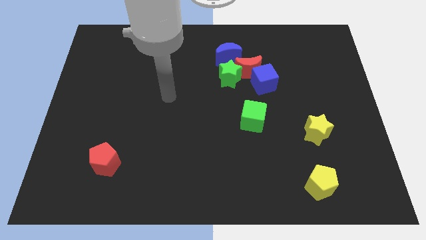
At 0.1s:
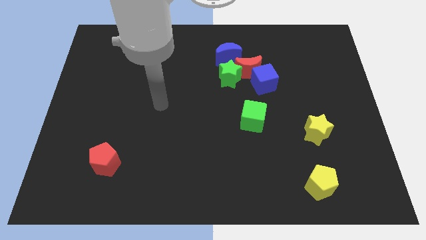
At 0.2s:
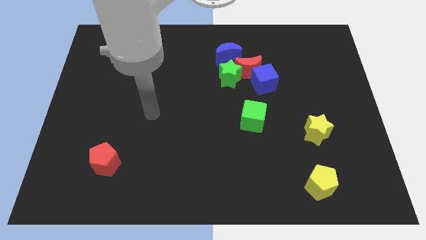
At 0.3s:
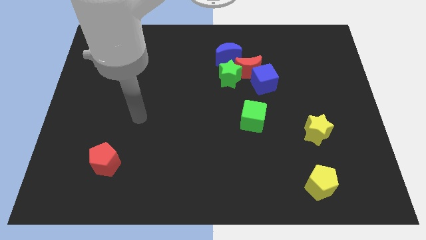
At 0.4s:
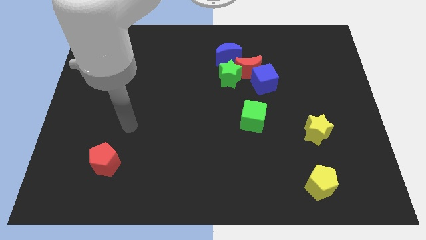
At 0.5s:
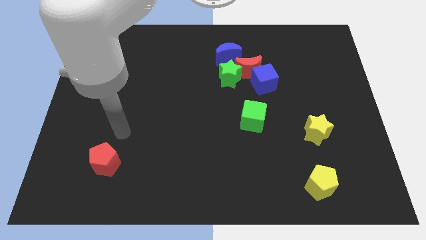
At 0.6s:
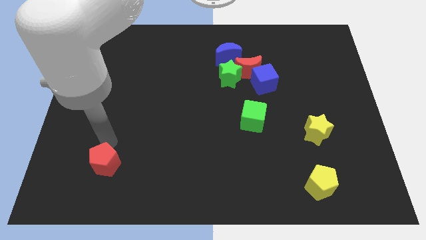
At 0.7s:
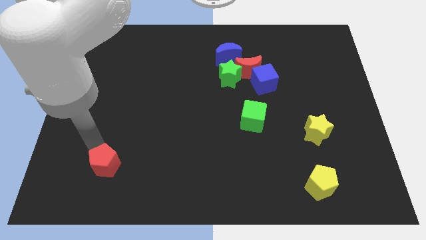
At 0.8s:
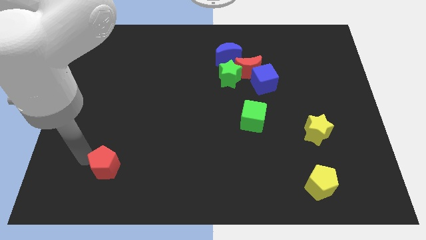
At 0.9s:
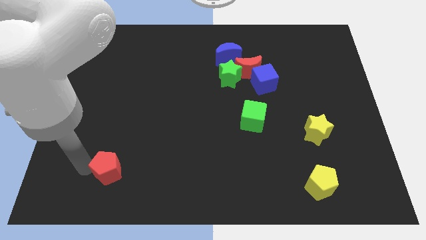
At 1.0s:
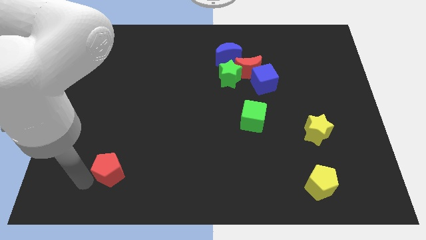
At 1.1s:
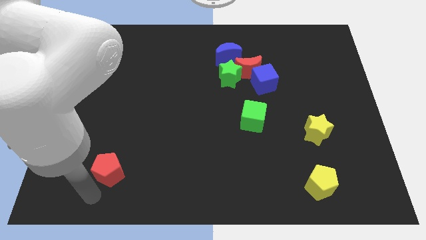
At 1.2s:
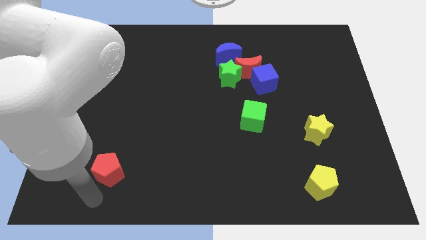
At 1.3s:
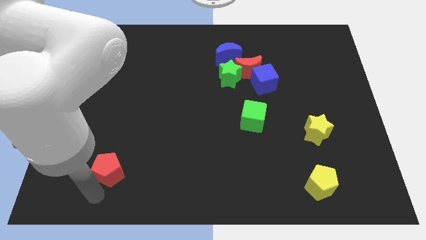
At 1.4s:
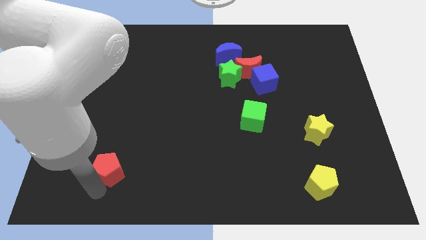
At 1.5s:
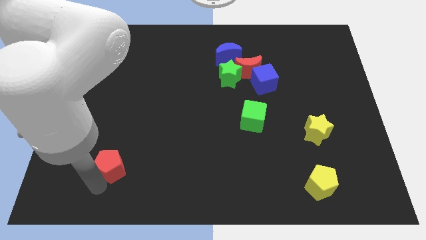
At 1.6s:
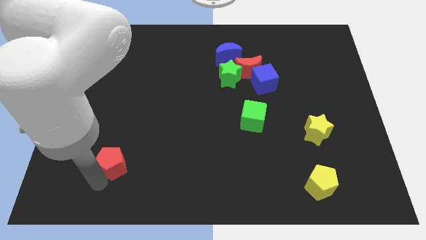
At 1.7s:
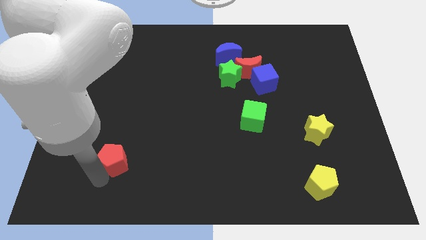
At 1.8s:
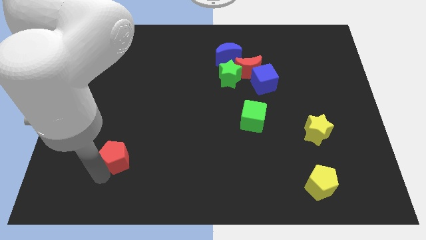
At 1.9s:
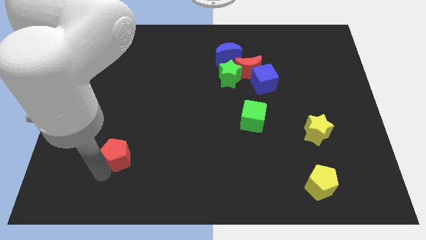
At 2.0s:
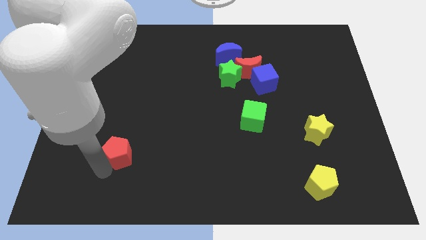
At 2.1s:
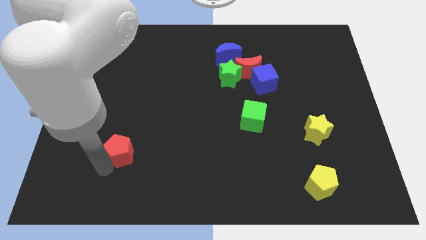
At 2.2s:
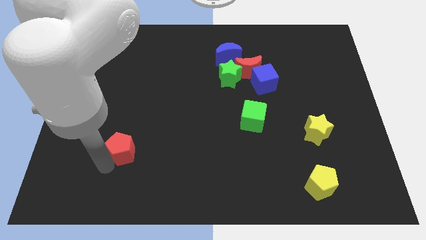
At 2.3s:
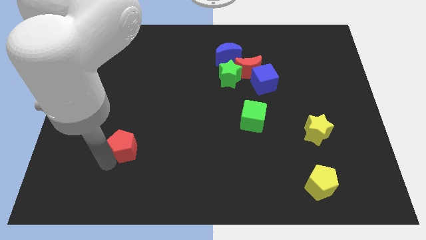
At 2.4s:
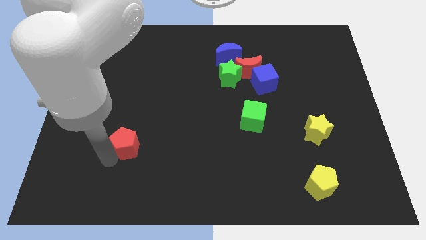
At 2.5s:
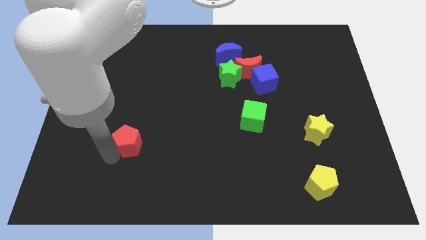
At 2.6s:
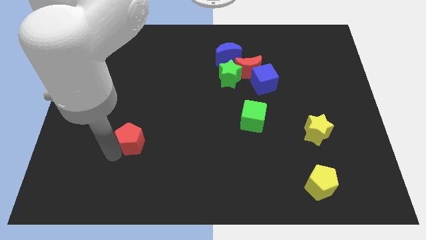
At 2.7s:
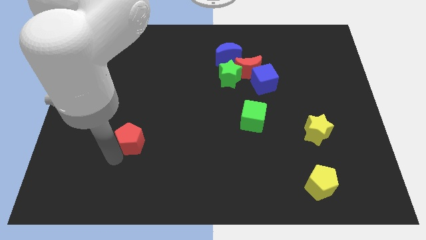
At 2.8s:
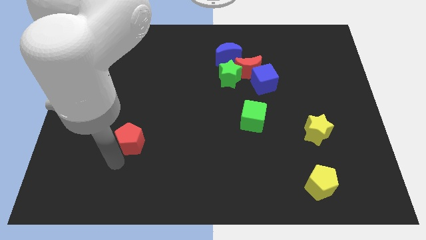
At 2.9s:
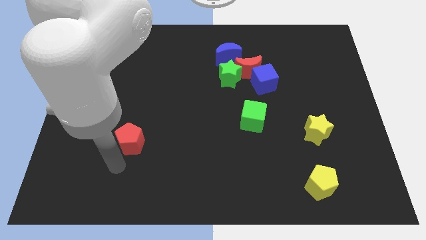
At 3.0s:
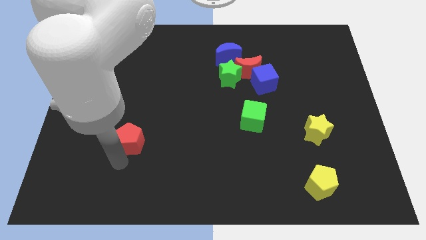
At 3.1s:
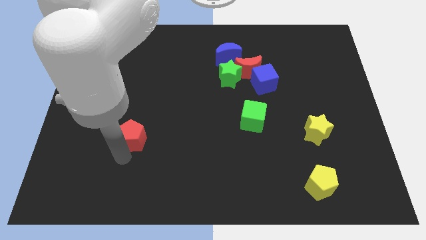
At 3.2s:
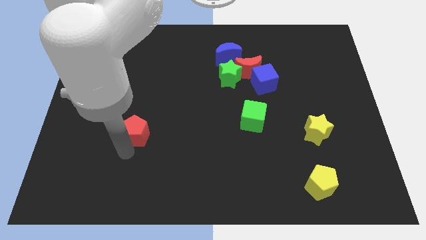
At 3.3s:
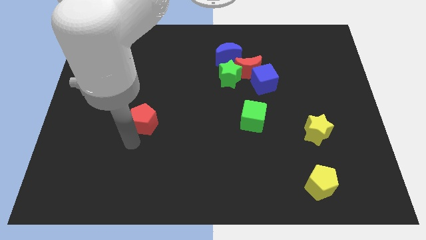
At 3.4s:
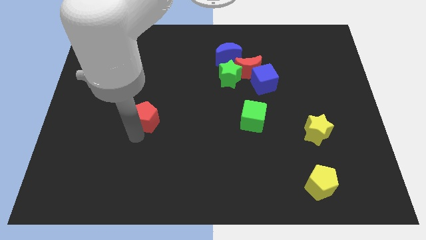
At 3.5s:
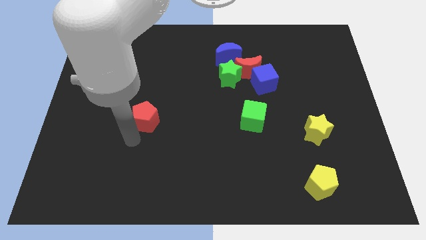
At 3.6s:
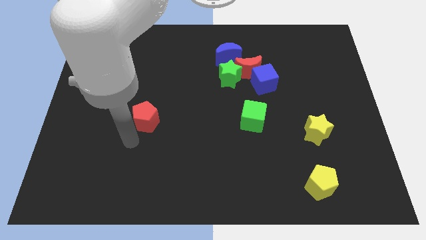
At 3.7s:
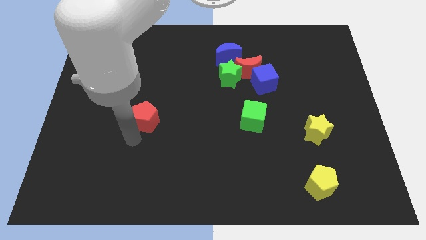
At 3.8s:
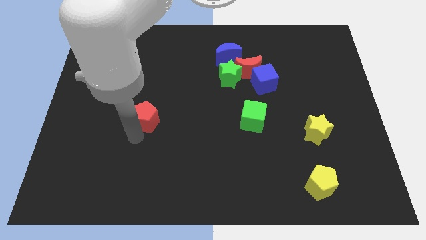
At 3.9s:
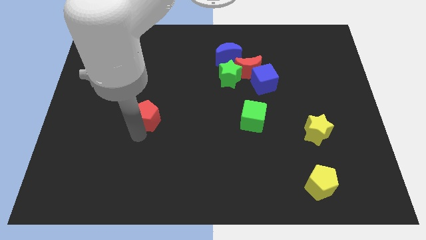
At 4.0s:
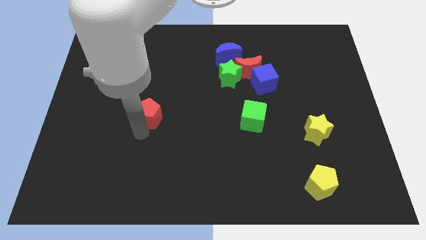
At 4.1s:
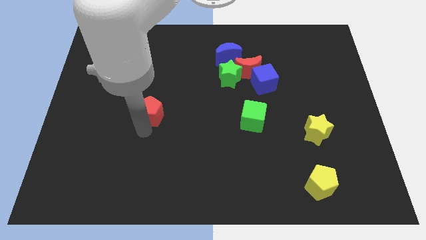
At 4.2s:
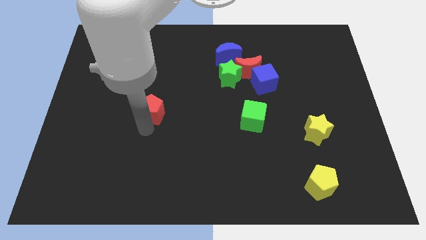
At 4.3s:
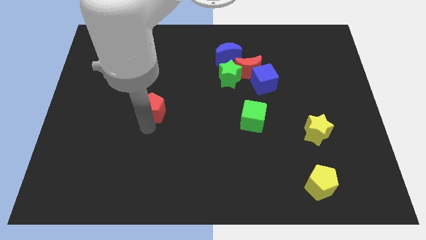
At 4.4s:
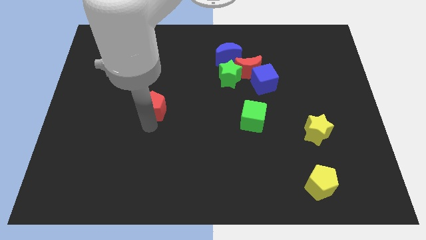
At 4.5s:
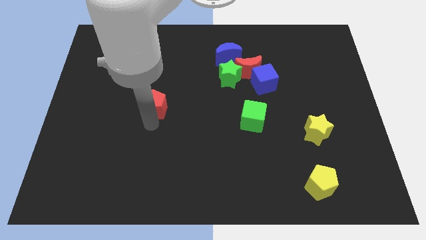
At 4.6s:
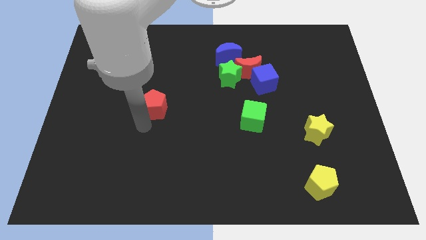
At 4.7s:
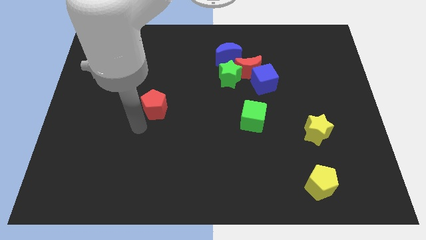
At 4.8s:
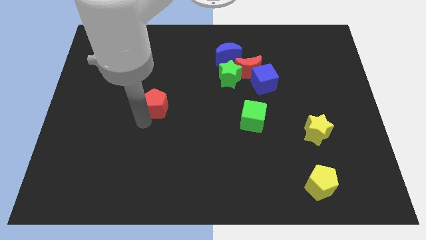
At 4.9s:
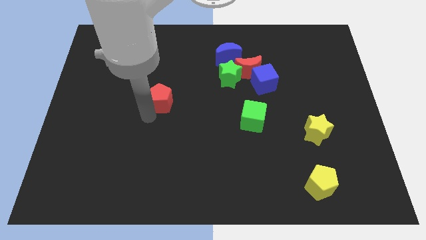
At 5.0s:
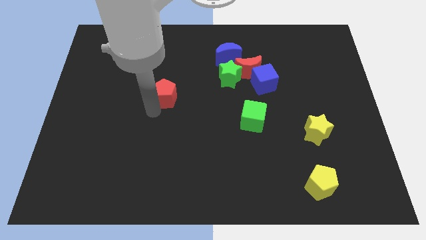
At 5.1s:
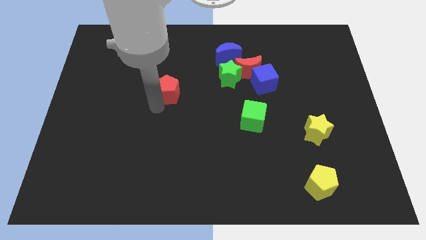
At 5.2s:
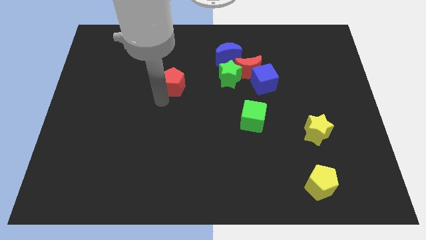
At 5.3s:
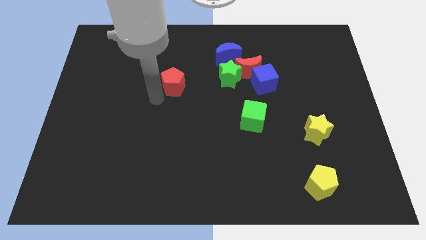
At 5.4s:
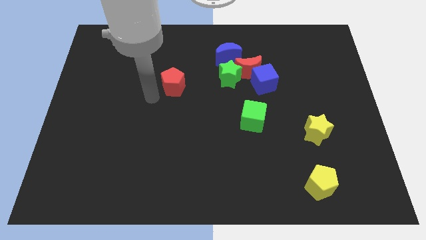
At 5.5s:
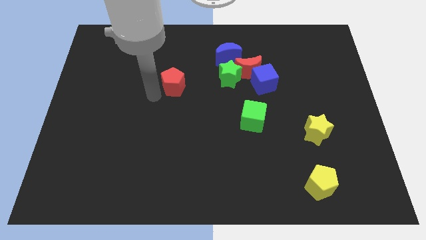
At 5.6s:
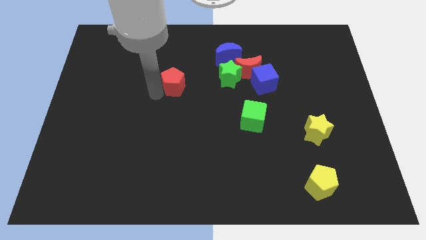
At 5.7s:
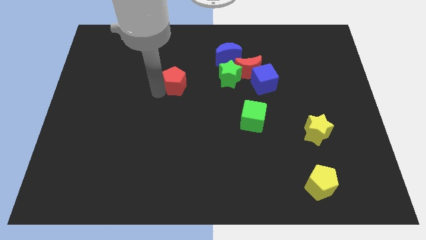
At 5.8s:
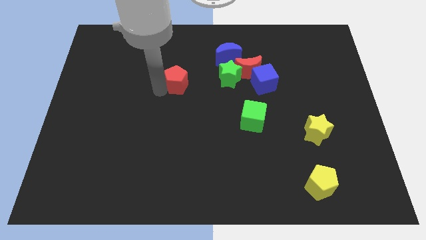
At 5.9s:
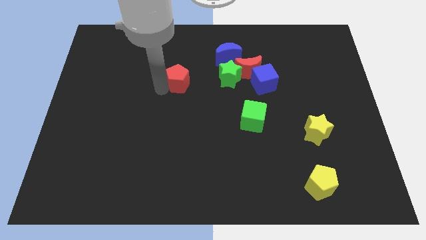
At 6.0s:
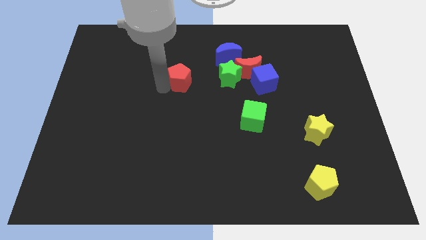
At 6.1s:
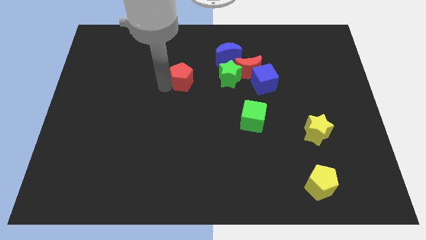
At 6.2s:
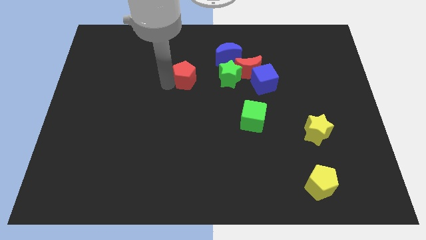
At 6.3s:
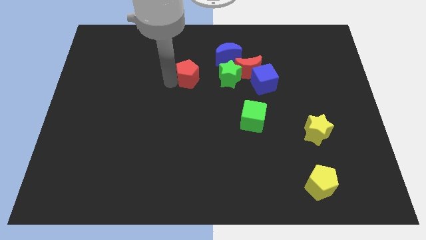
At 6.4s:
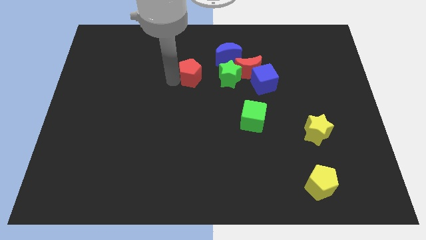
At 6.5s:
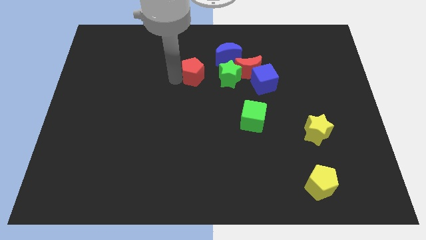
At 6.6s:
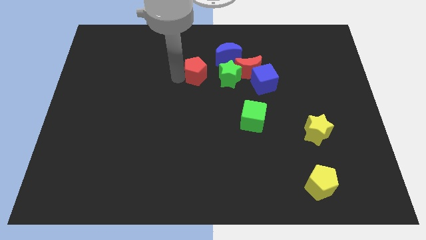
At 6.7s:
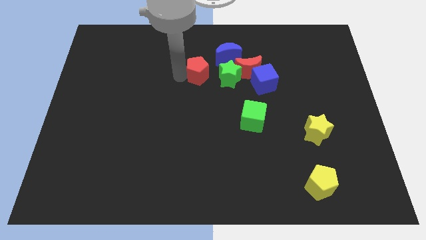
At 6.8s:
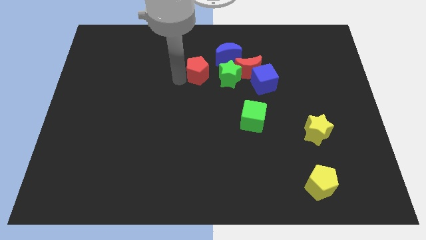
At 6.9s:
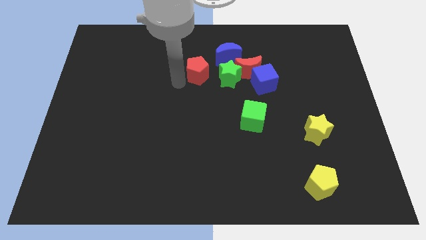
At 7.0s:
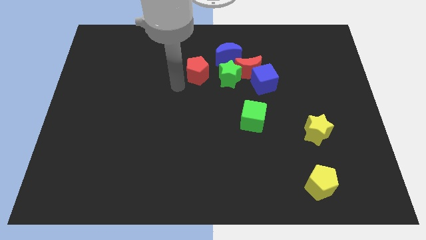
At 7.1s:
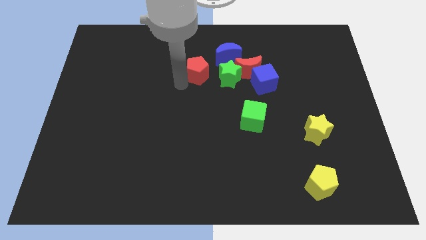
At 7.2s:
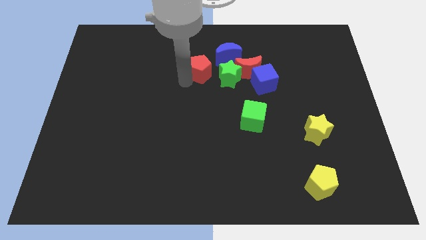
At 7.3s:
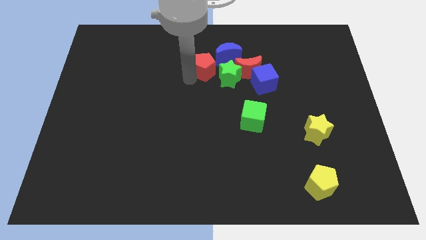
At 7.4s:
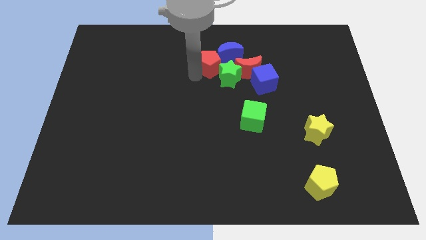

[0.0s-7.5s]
move the red pentagon close to the blue moon
